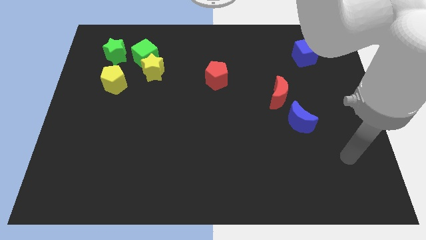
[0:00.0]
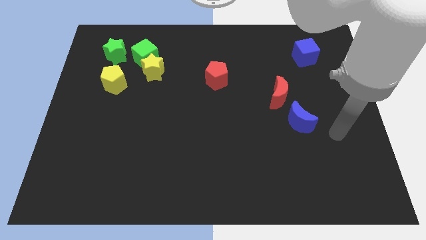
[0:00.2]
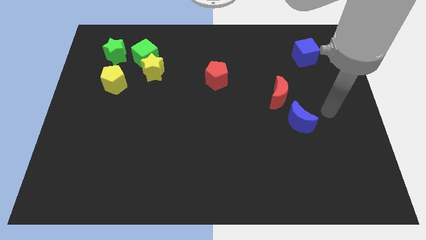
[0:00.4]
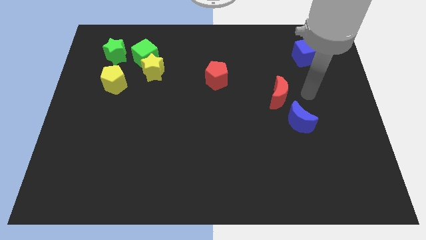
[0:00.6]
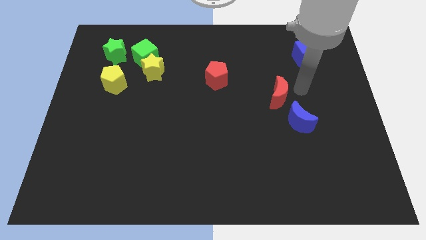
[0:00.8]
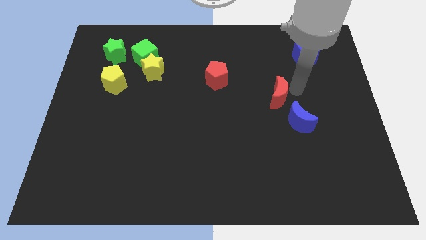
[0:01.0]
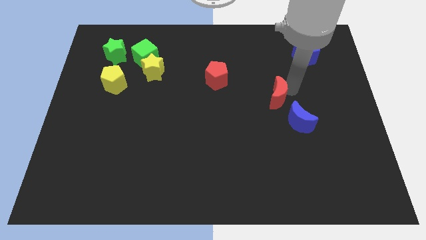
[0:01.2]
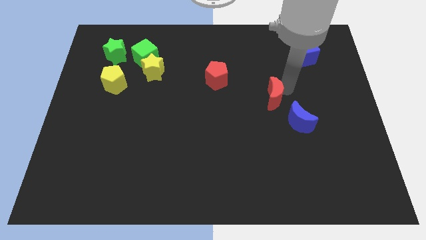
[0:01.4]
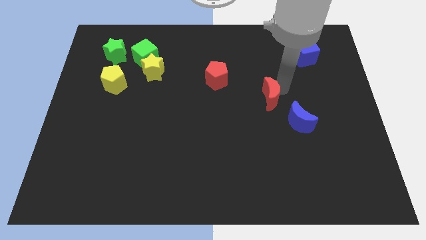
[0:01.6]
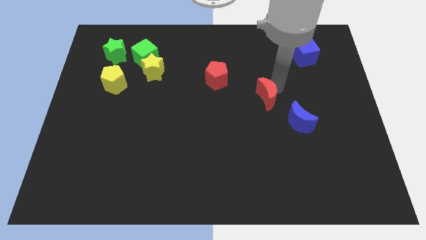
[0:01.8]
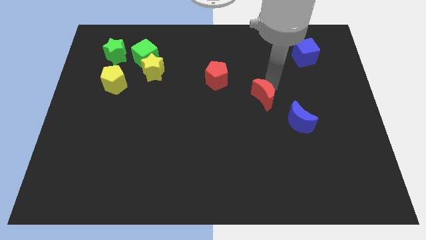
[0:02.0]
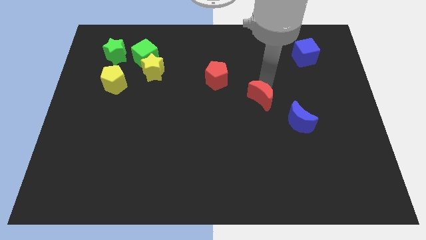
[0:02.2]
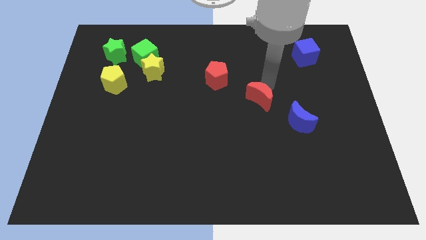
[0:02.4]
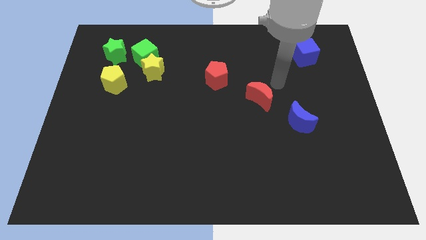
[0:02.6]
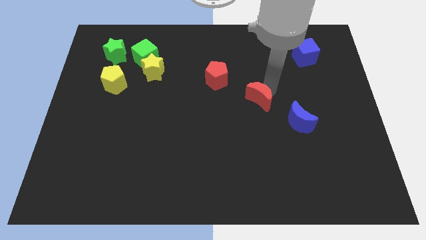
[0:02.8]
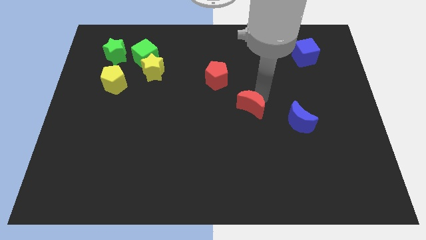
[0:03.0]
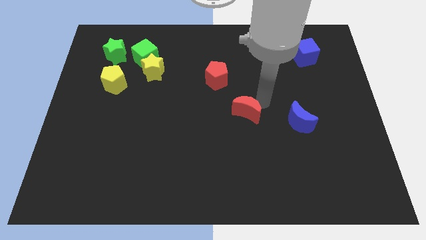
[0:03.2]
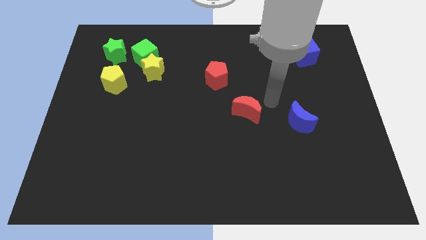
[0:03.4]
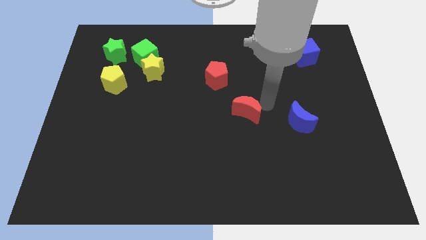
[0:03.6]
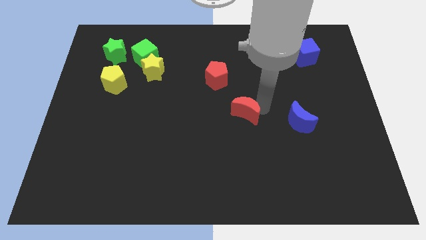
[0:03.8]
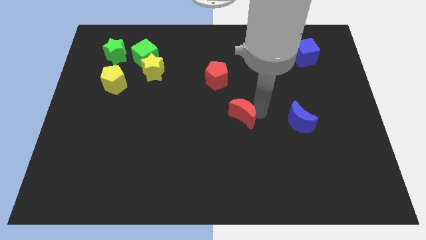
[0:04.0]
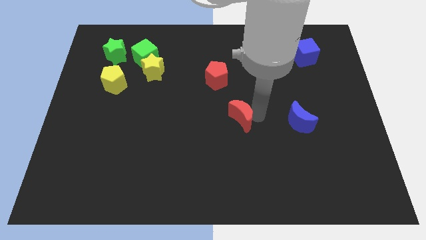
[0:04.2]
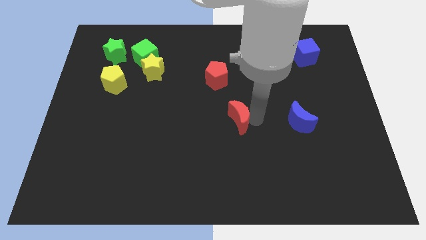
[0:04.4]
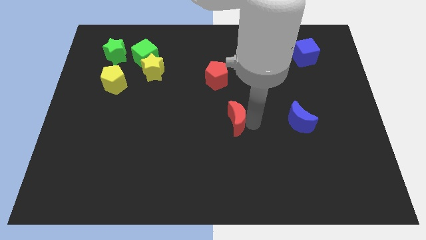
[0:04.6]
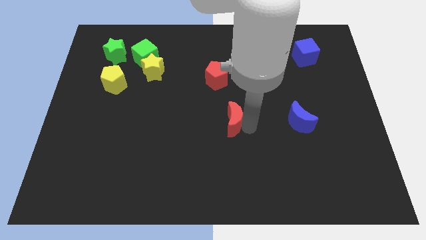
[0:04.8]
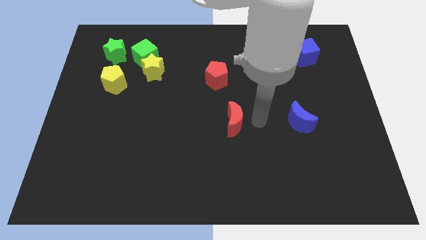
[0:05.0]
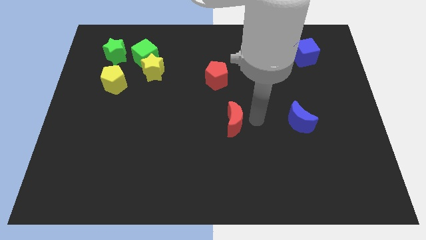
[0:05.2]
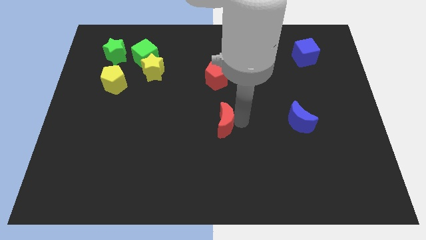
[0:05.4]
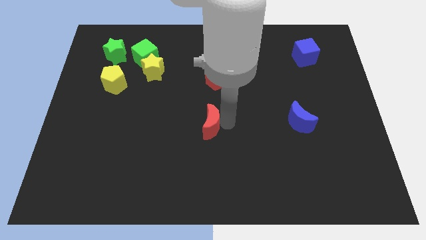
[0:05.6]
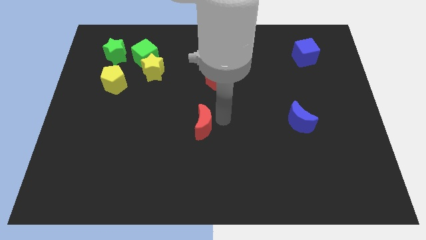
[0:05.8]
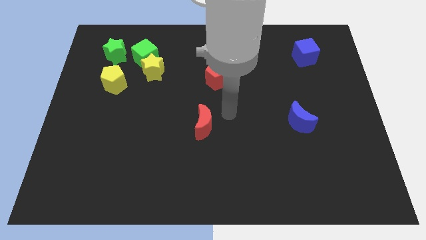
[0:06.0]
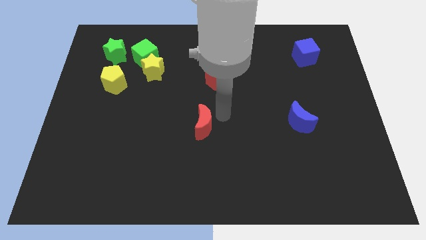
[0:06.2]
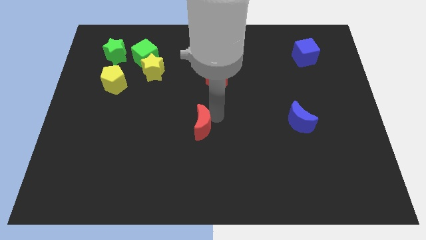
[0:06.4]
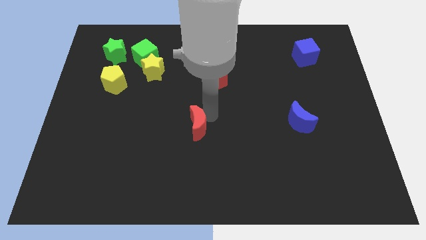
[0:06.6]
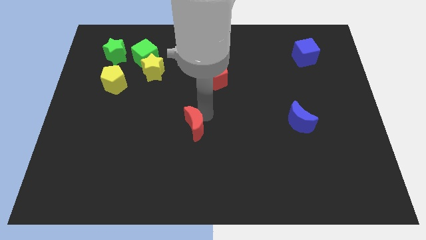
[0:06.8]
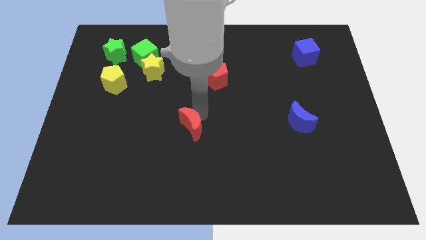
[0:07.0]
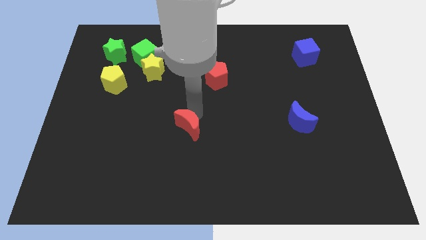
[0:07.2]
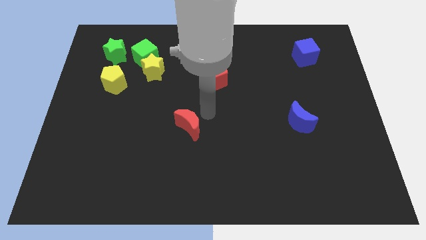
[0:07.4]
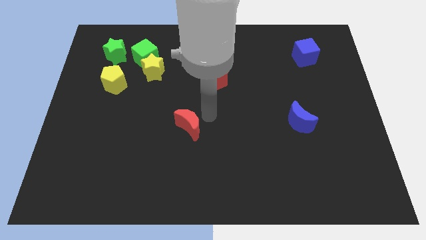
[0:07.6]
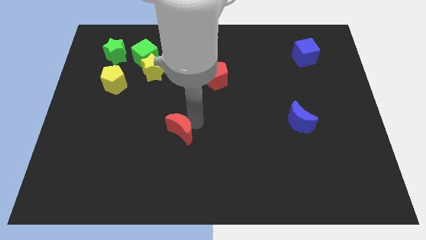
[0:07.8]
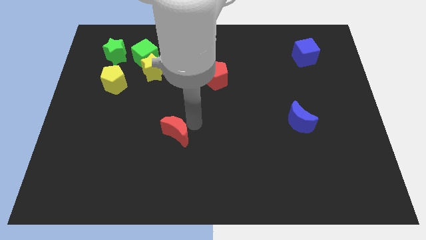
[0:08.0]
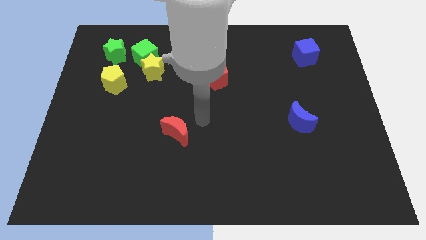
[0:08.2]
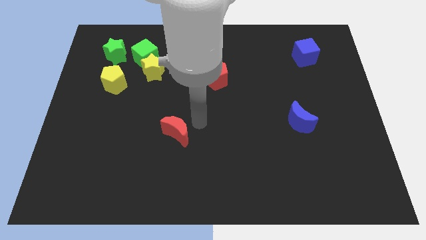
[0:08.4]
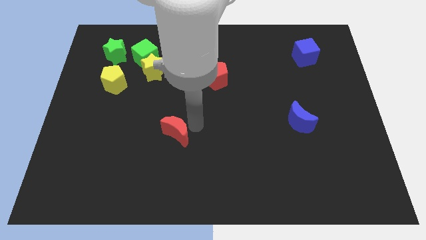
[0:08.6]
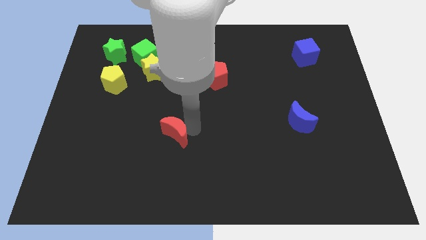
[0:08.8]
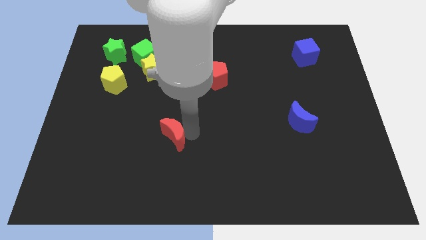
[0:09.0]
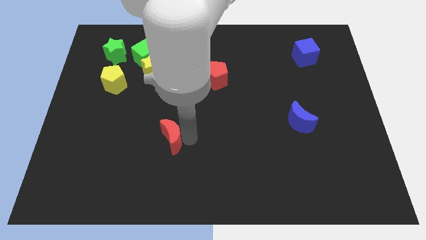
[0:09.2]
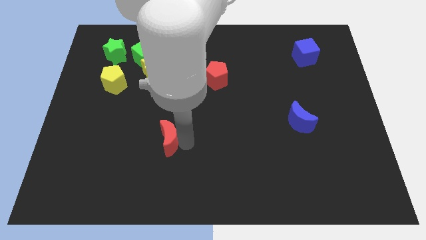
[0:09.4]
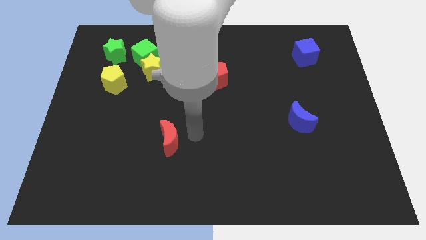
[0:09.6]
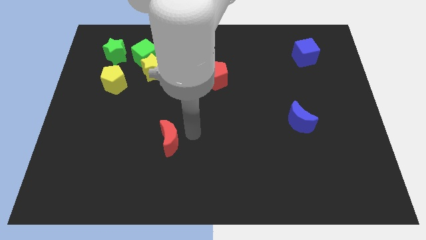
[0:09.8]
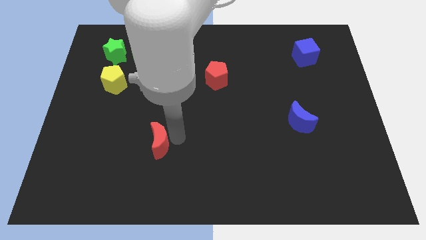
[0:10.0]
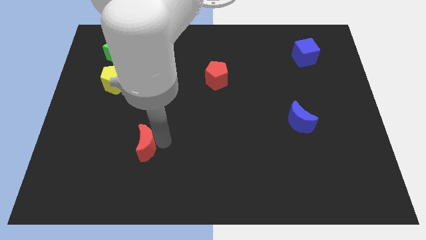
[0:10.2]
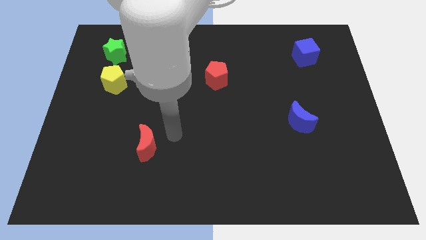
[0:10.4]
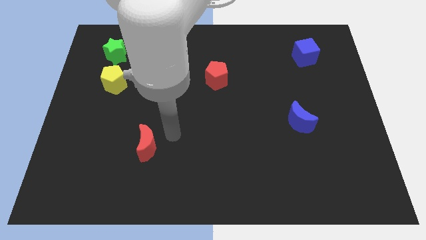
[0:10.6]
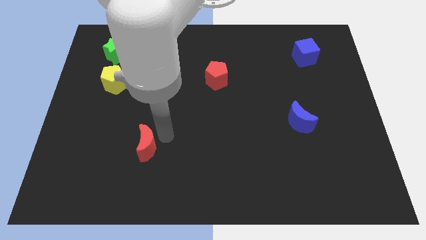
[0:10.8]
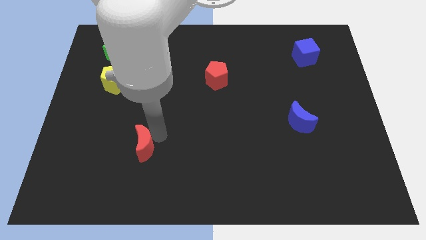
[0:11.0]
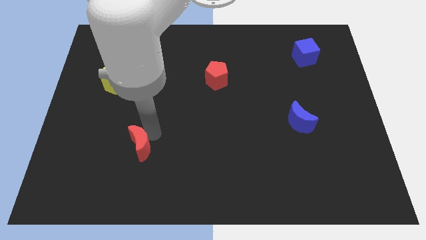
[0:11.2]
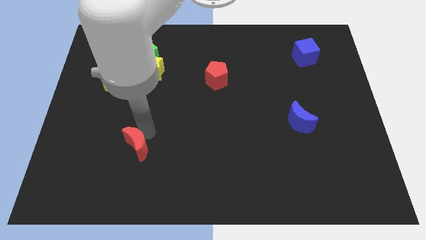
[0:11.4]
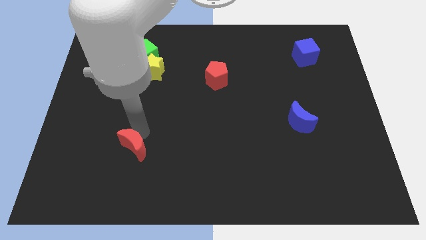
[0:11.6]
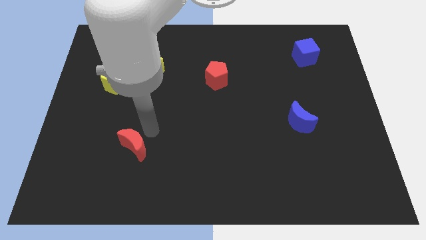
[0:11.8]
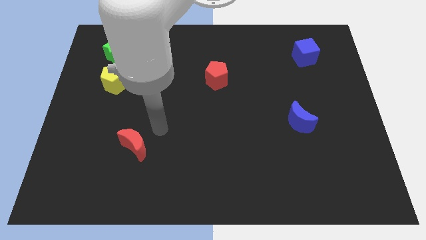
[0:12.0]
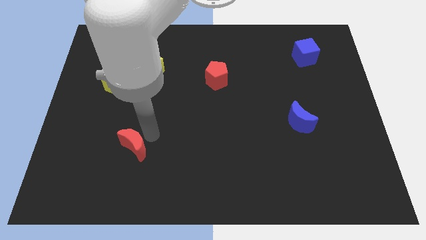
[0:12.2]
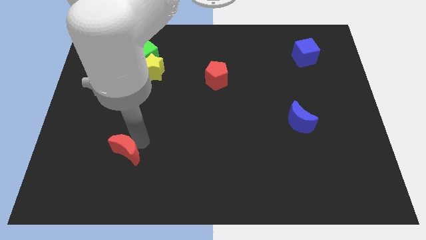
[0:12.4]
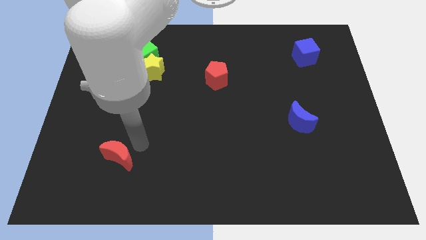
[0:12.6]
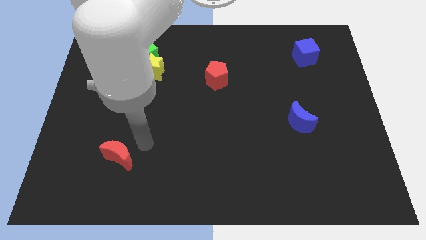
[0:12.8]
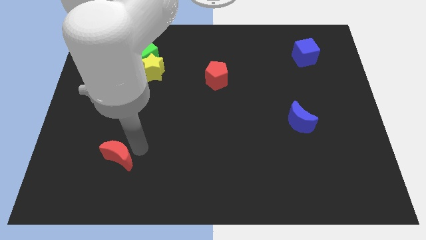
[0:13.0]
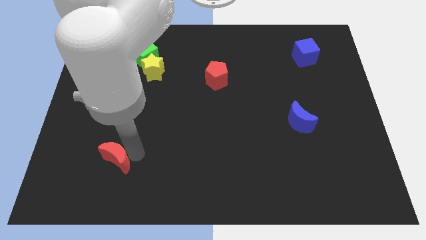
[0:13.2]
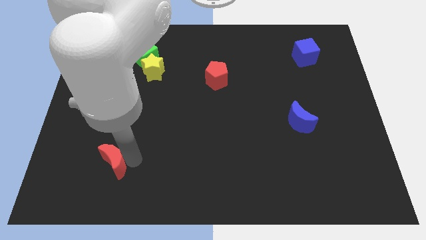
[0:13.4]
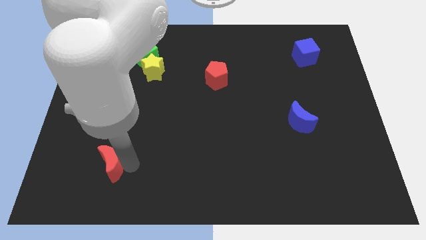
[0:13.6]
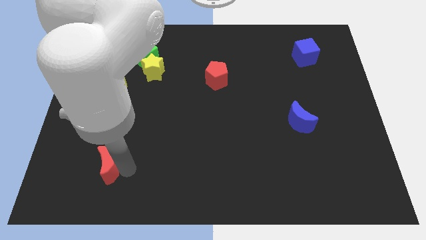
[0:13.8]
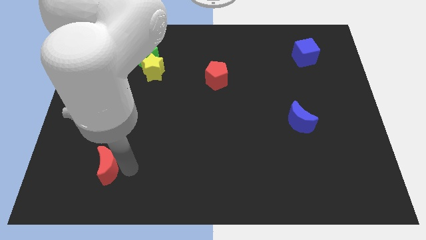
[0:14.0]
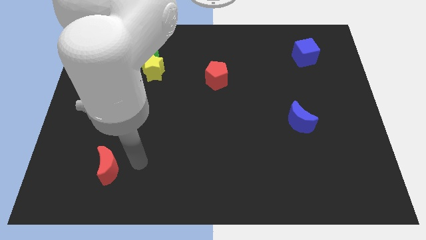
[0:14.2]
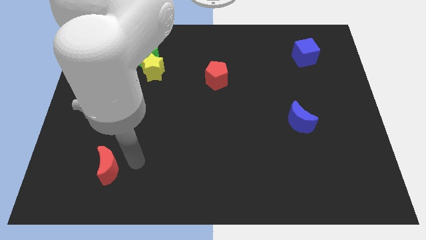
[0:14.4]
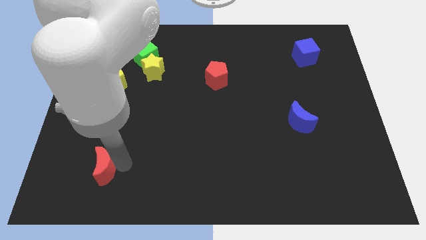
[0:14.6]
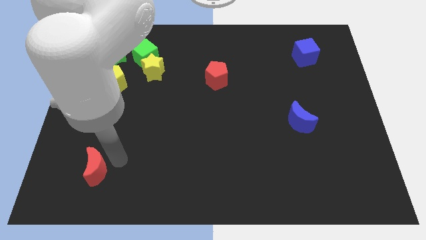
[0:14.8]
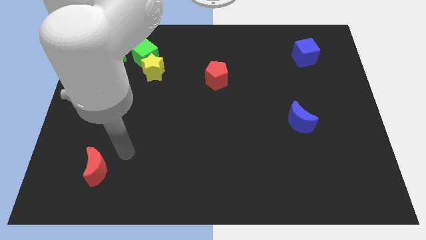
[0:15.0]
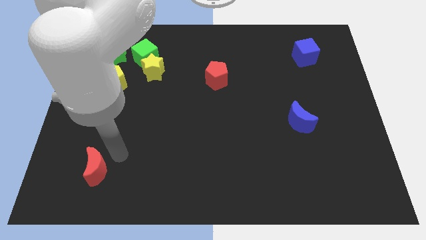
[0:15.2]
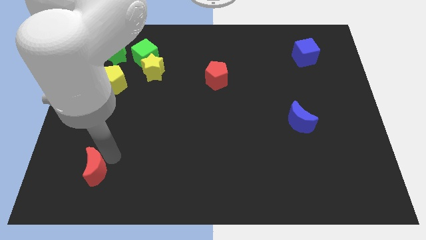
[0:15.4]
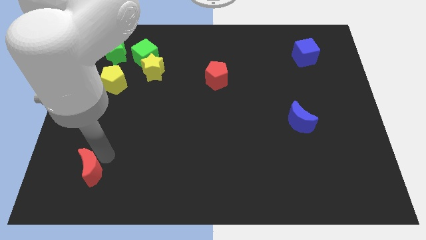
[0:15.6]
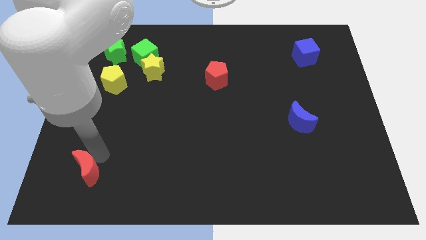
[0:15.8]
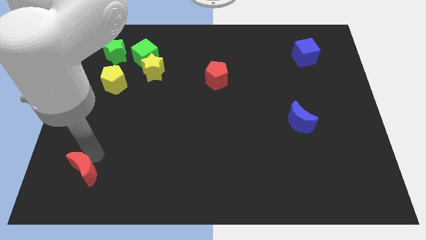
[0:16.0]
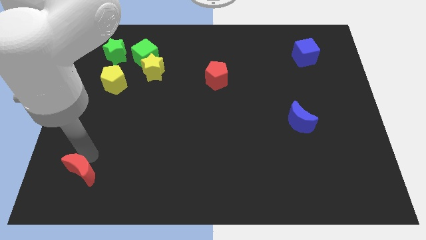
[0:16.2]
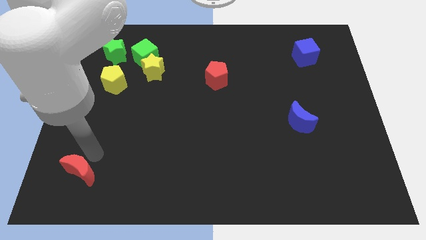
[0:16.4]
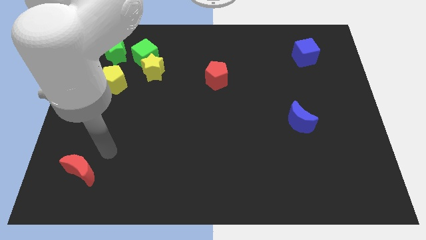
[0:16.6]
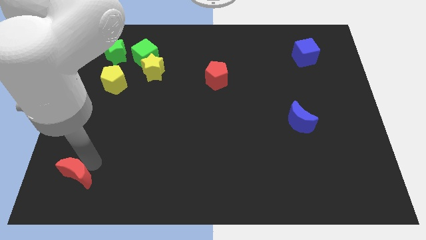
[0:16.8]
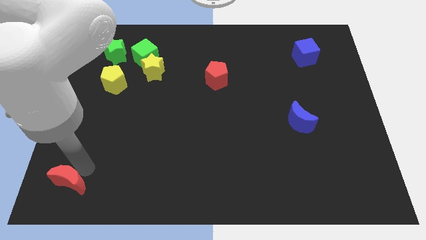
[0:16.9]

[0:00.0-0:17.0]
put the red moon to the bottom left of the board
